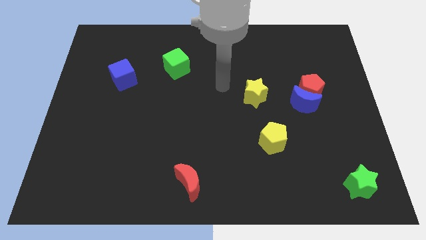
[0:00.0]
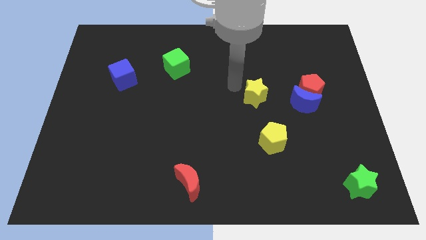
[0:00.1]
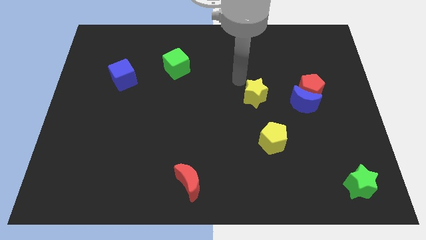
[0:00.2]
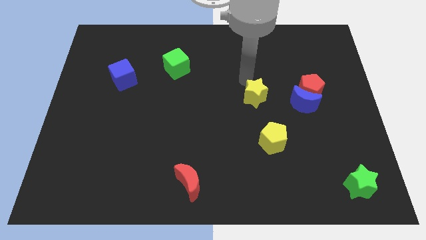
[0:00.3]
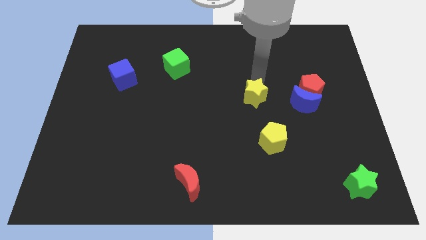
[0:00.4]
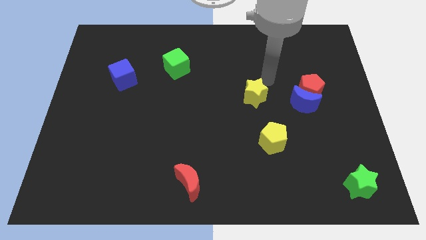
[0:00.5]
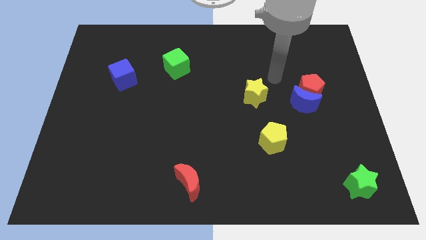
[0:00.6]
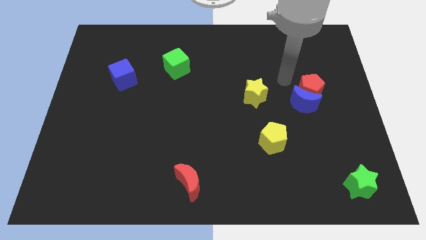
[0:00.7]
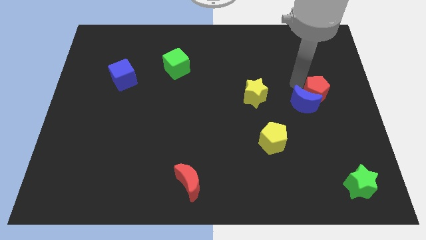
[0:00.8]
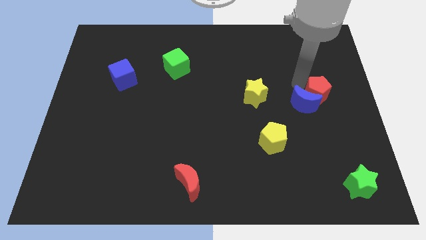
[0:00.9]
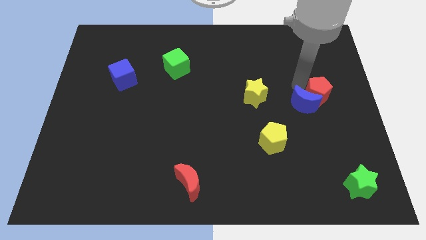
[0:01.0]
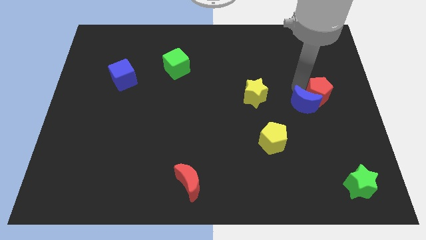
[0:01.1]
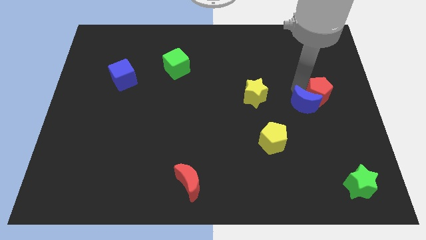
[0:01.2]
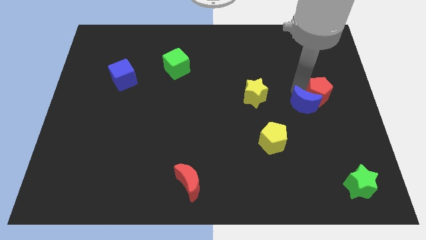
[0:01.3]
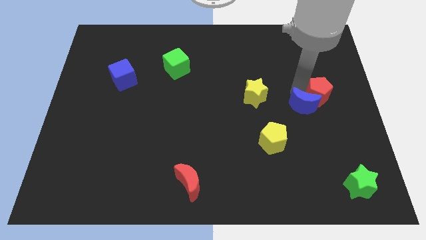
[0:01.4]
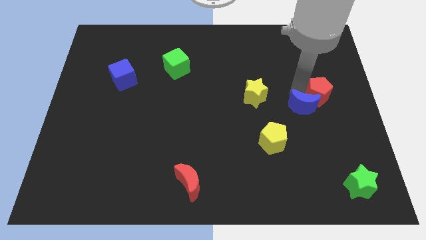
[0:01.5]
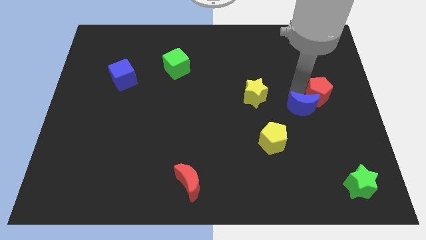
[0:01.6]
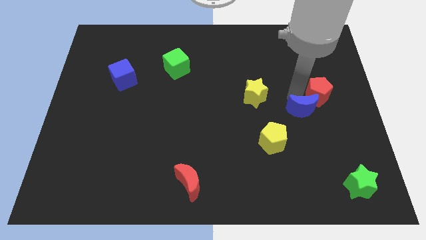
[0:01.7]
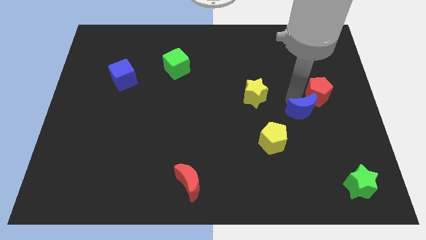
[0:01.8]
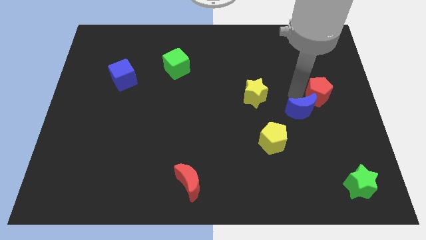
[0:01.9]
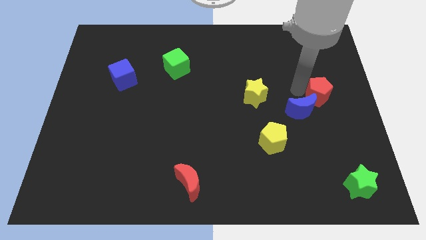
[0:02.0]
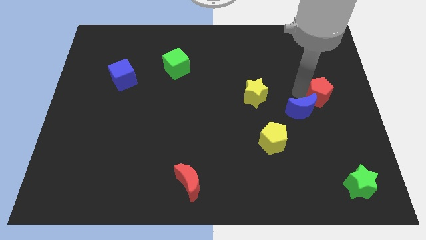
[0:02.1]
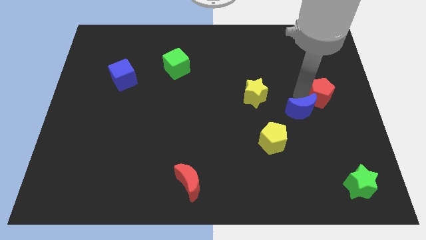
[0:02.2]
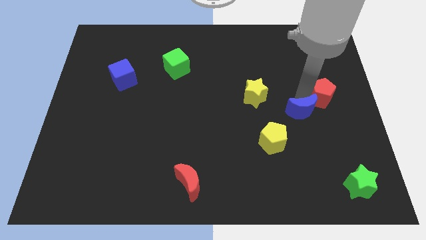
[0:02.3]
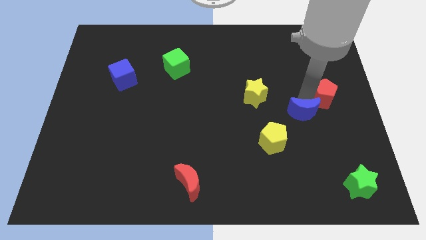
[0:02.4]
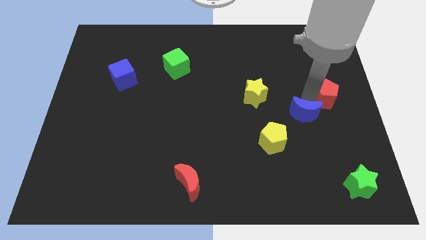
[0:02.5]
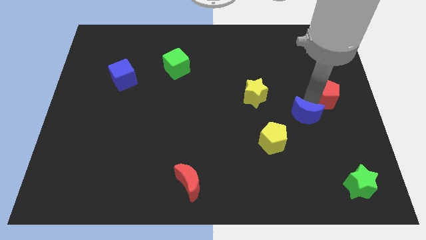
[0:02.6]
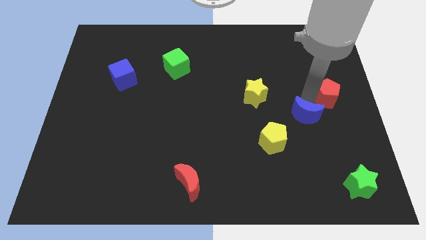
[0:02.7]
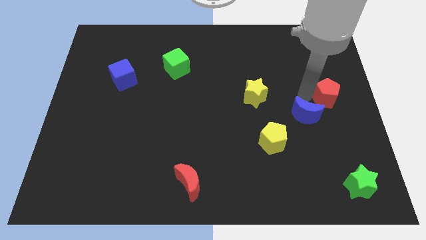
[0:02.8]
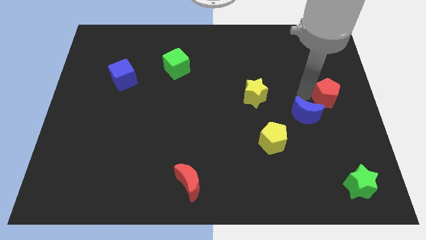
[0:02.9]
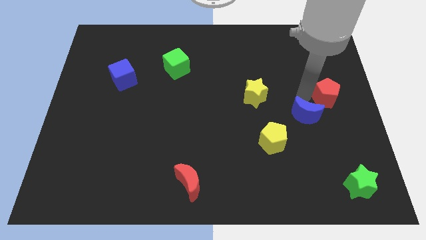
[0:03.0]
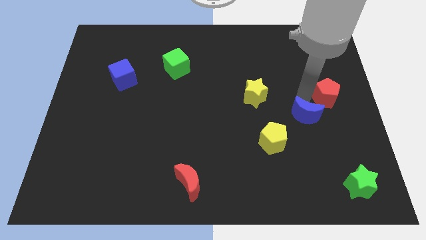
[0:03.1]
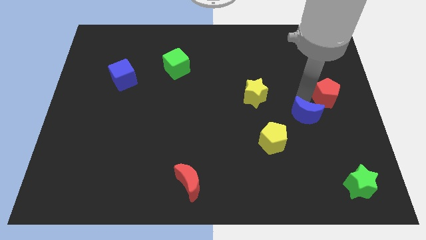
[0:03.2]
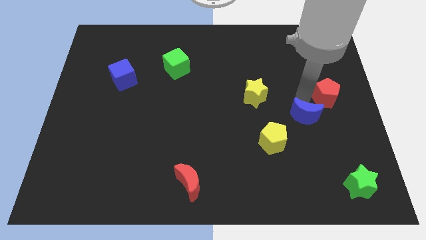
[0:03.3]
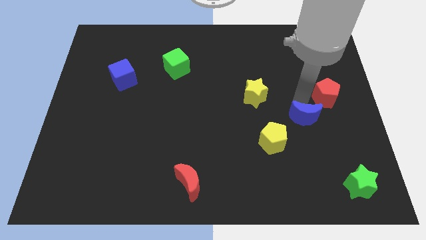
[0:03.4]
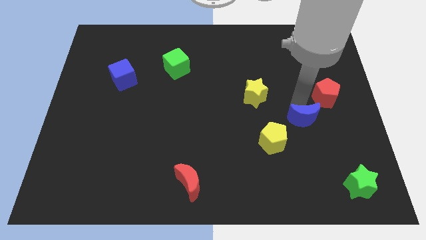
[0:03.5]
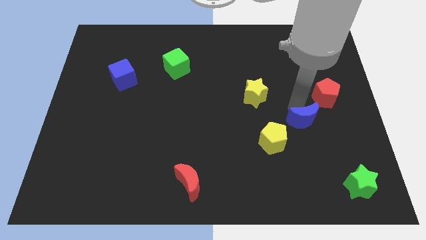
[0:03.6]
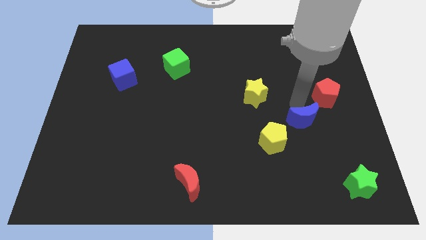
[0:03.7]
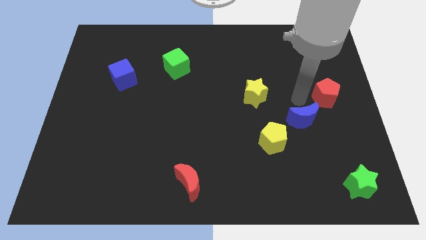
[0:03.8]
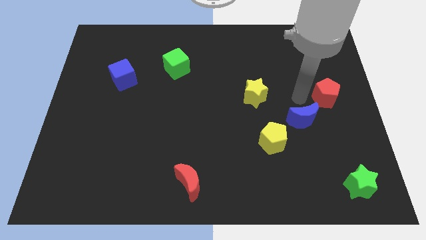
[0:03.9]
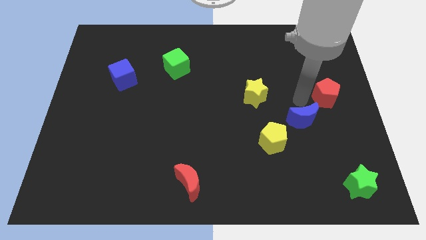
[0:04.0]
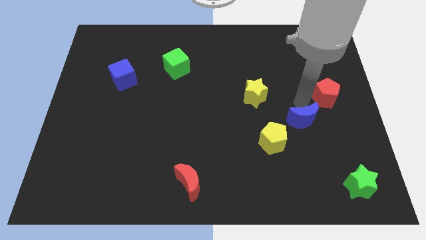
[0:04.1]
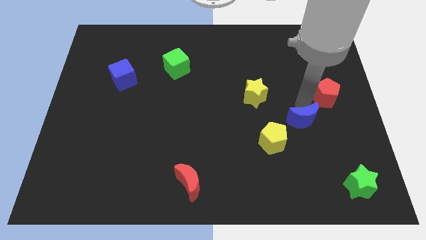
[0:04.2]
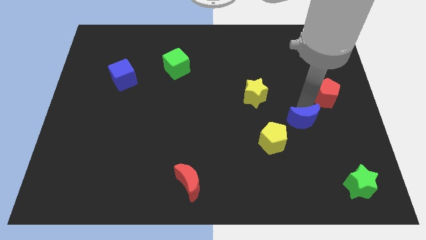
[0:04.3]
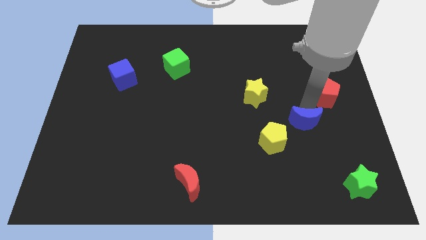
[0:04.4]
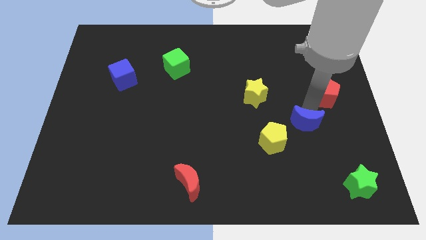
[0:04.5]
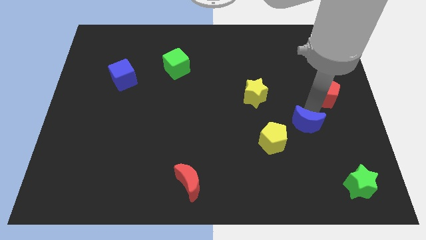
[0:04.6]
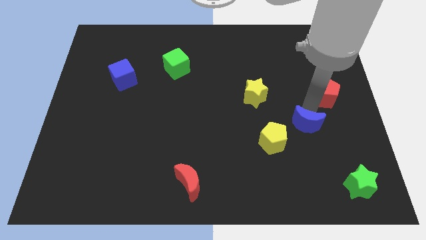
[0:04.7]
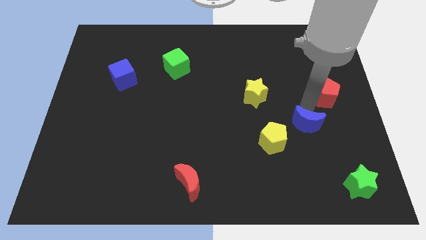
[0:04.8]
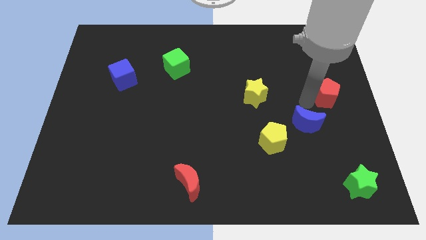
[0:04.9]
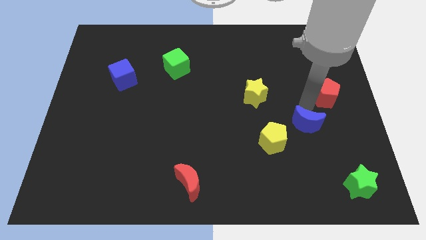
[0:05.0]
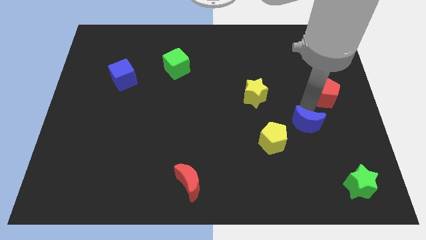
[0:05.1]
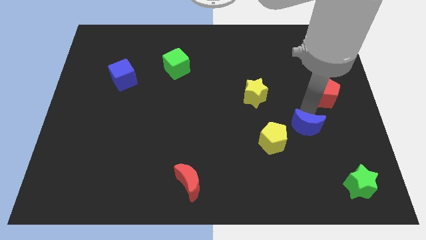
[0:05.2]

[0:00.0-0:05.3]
move the blue moon a bit downwards

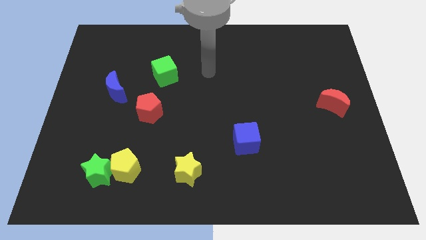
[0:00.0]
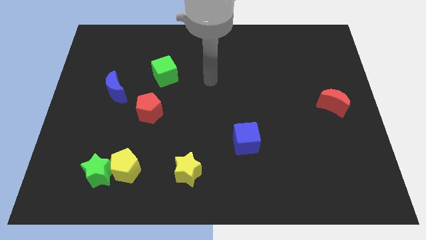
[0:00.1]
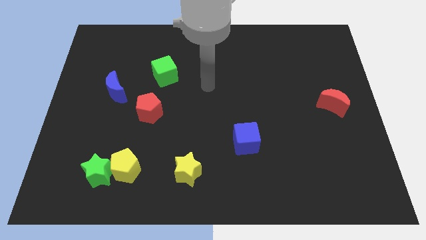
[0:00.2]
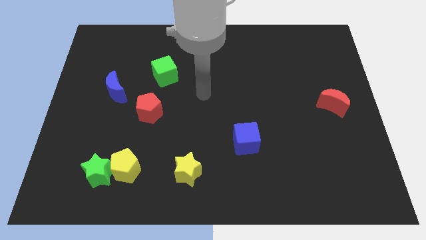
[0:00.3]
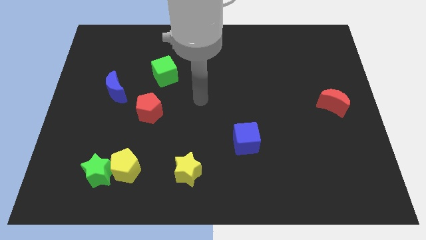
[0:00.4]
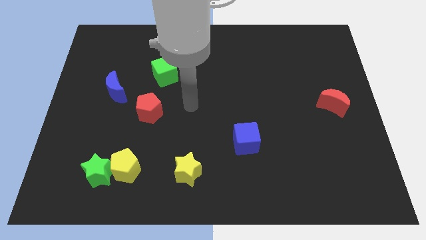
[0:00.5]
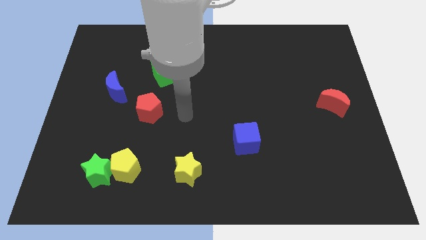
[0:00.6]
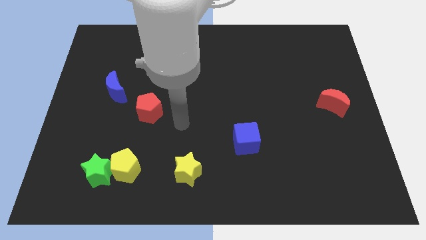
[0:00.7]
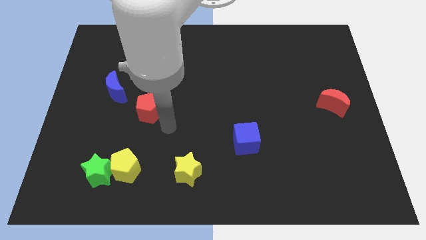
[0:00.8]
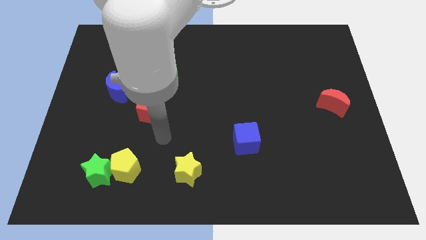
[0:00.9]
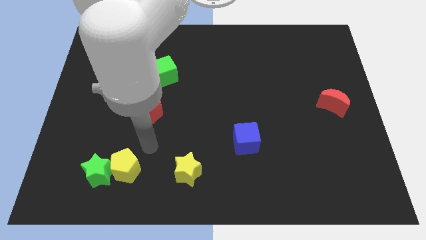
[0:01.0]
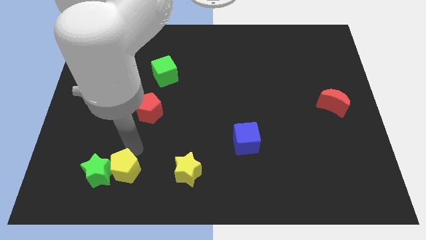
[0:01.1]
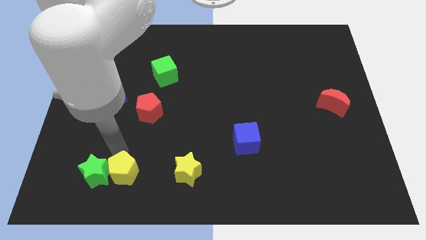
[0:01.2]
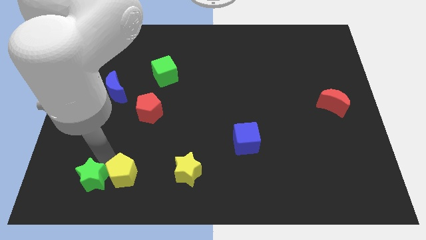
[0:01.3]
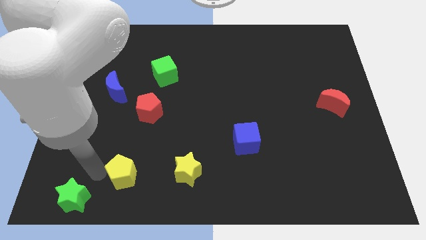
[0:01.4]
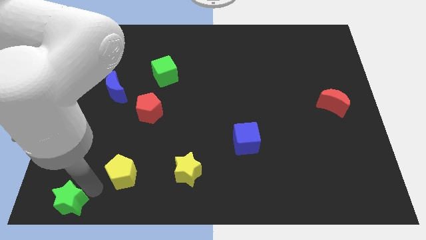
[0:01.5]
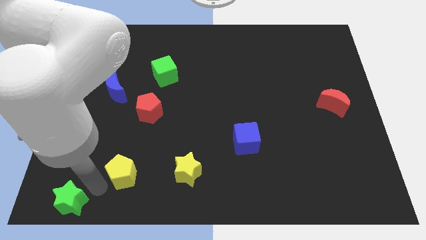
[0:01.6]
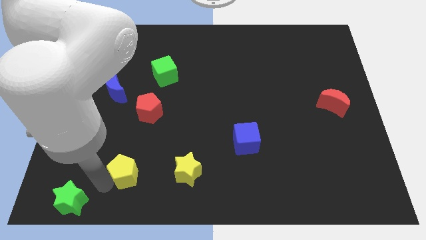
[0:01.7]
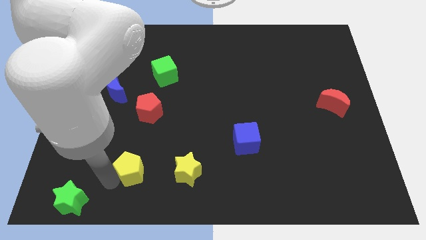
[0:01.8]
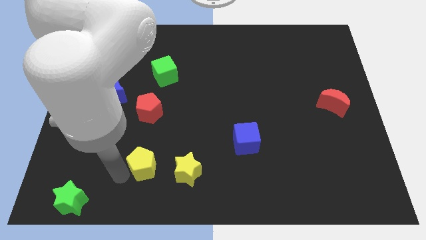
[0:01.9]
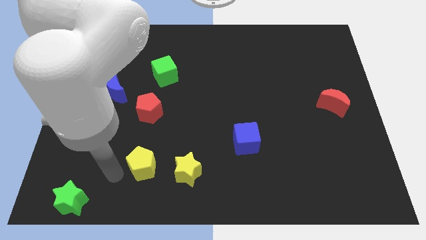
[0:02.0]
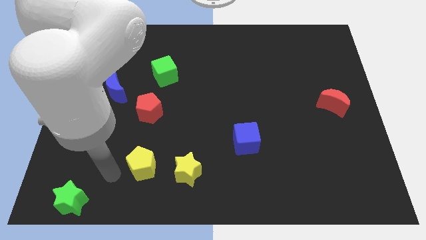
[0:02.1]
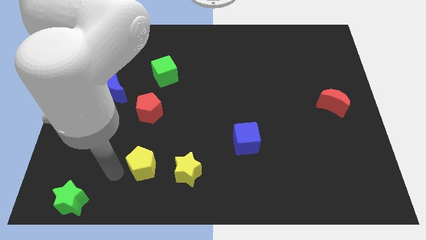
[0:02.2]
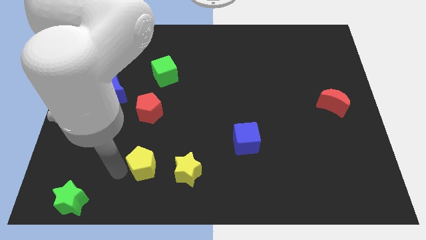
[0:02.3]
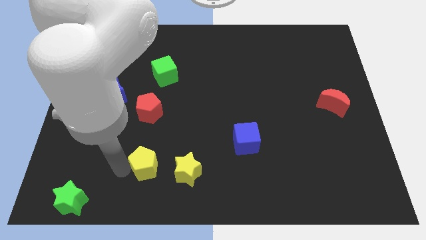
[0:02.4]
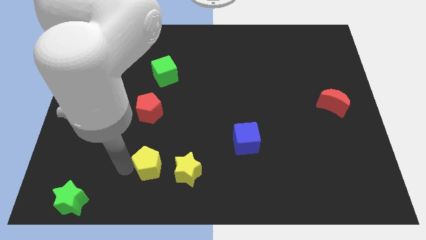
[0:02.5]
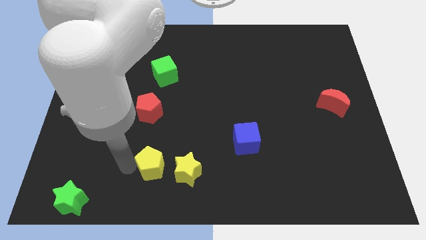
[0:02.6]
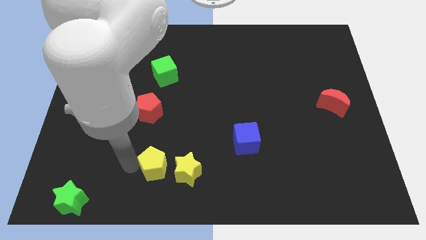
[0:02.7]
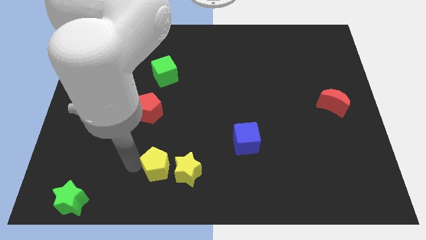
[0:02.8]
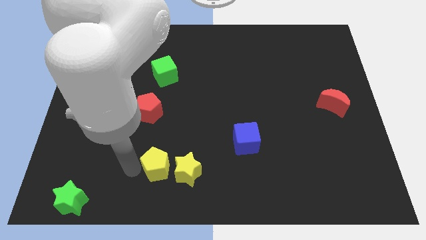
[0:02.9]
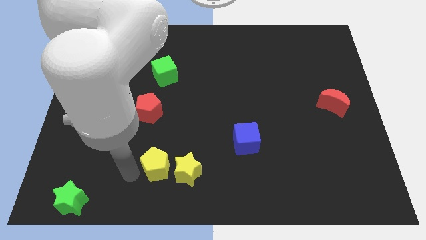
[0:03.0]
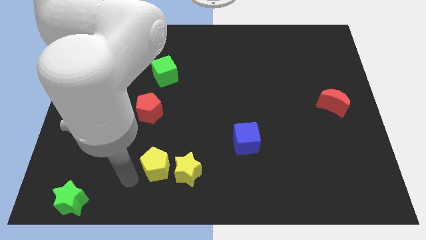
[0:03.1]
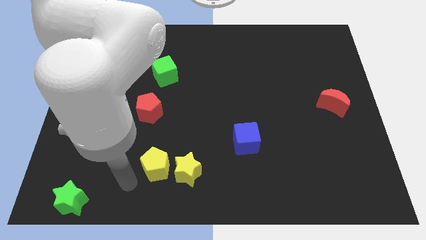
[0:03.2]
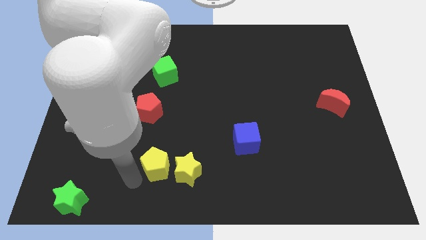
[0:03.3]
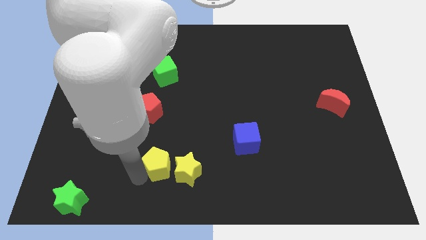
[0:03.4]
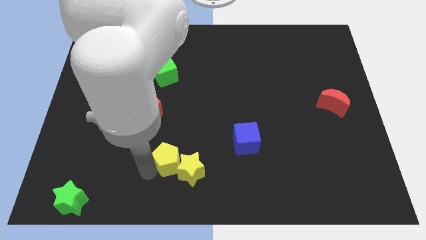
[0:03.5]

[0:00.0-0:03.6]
slide the yellow pentagon slightly to the right
